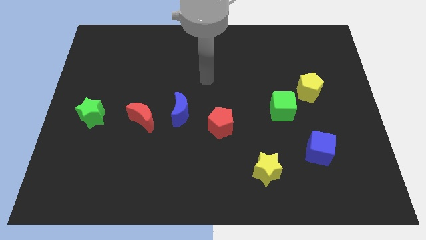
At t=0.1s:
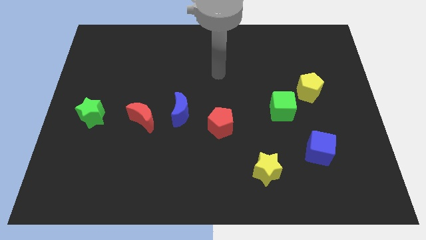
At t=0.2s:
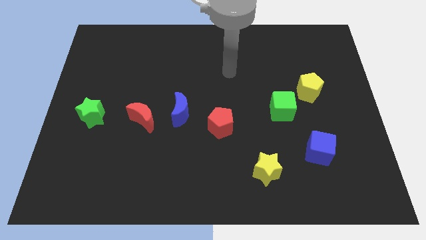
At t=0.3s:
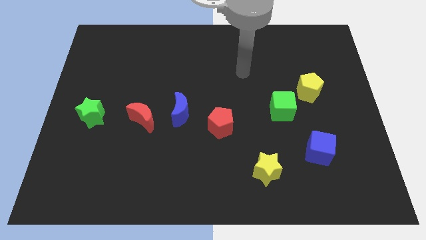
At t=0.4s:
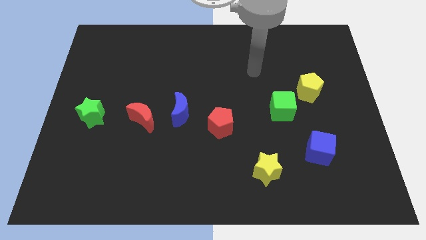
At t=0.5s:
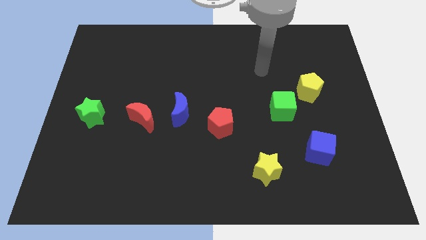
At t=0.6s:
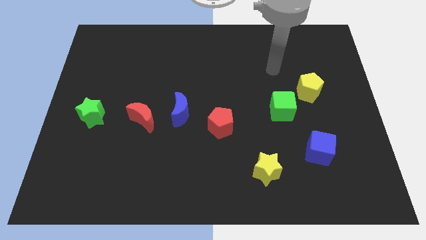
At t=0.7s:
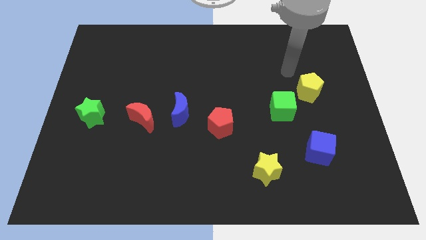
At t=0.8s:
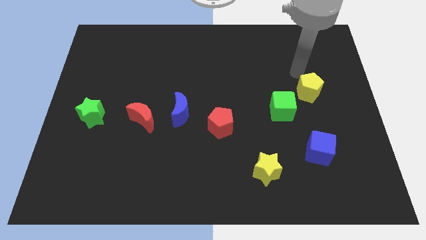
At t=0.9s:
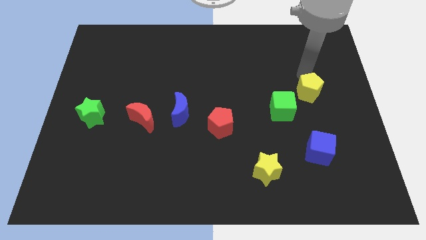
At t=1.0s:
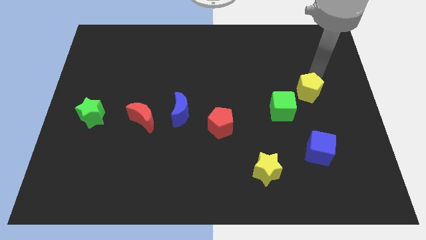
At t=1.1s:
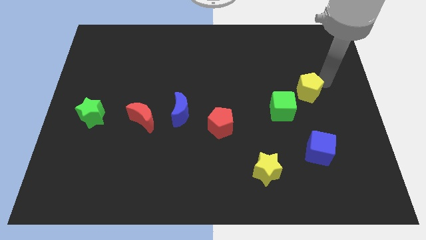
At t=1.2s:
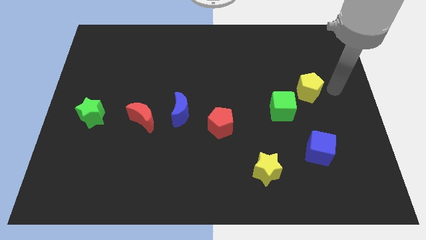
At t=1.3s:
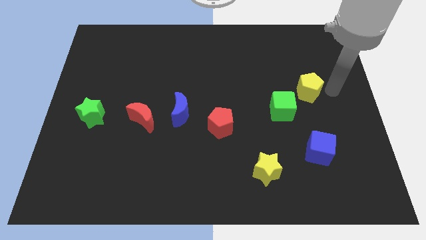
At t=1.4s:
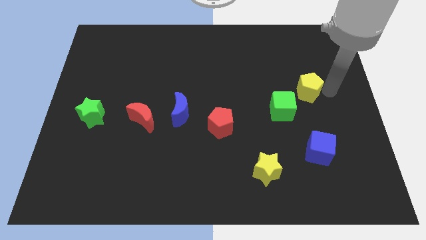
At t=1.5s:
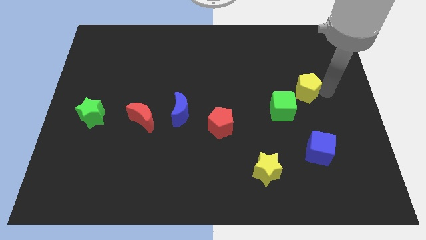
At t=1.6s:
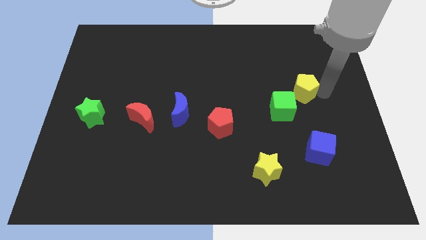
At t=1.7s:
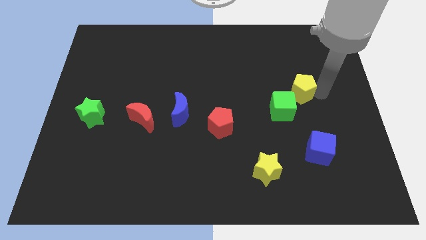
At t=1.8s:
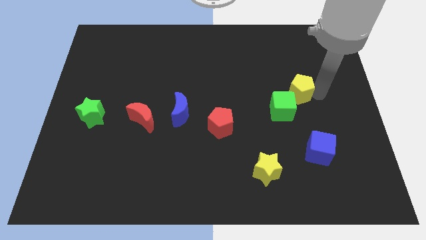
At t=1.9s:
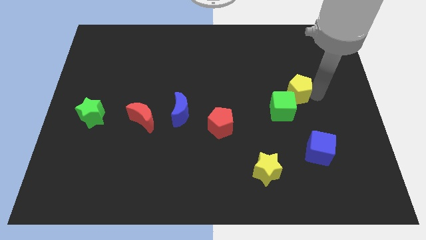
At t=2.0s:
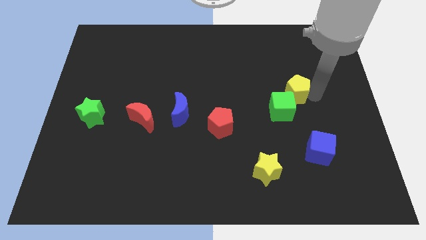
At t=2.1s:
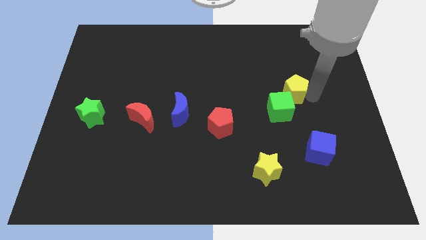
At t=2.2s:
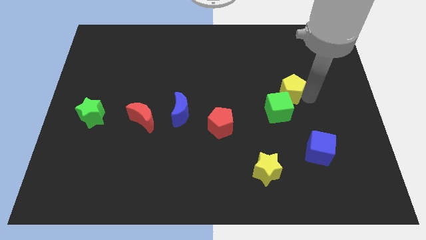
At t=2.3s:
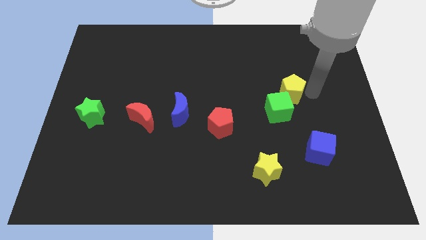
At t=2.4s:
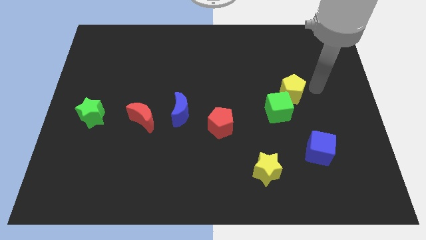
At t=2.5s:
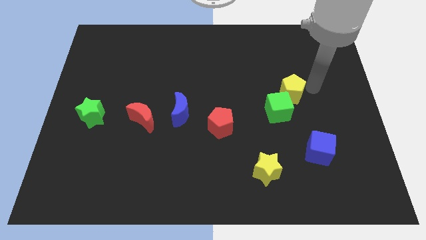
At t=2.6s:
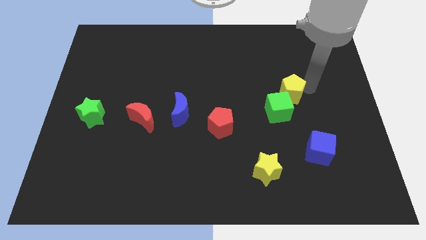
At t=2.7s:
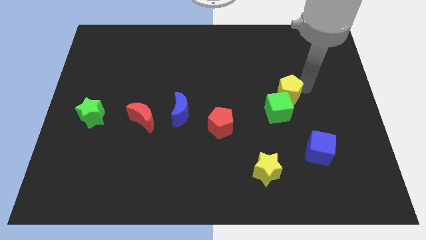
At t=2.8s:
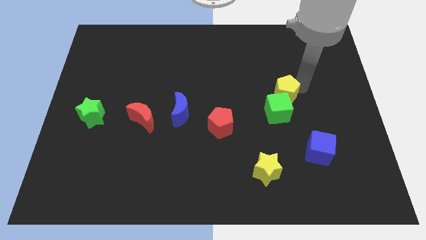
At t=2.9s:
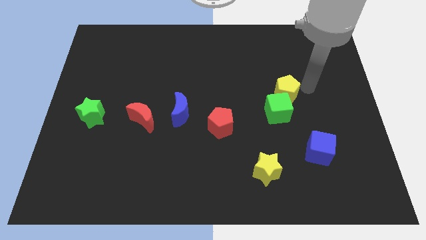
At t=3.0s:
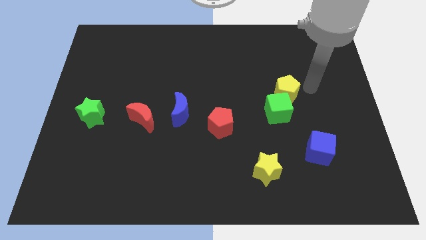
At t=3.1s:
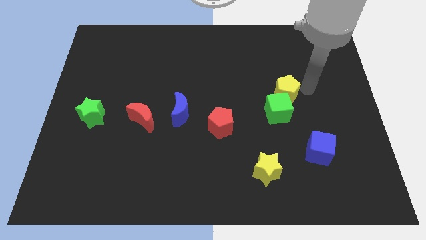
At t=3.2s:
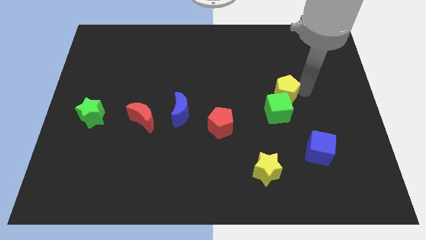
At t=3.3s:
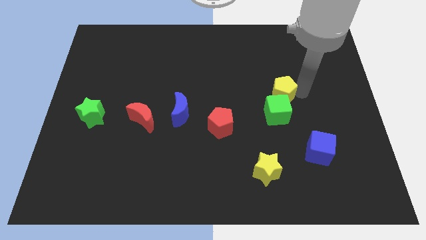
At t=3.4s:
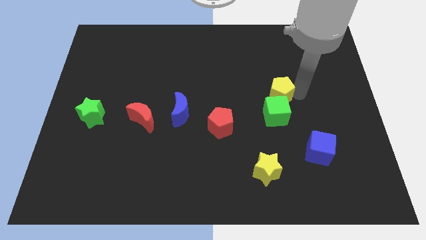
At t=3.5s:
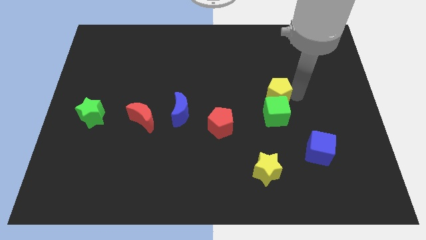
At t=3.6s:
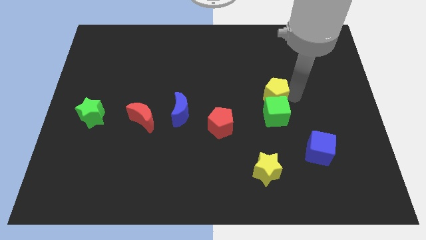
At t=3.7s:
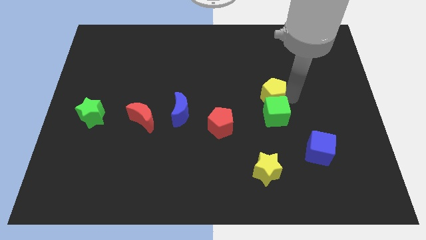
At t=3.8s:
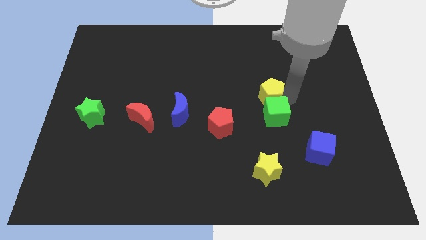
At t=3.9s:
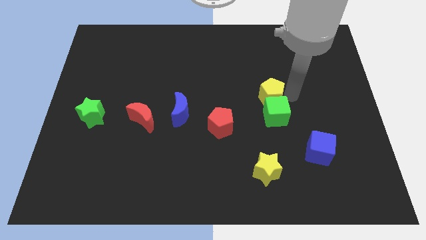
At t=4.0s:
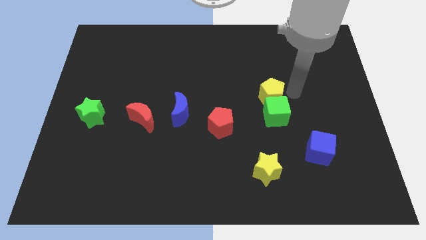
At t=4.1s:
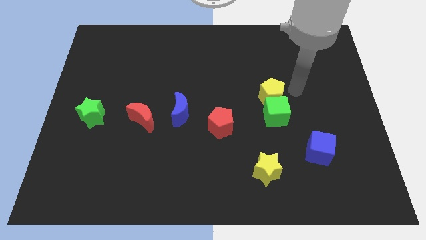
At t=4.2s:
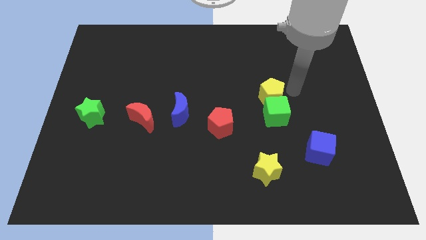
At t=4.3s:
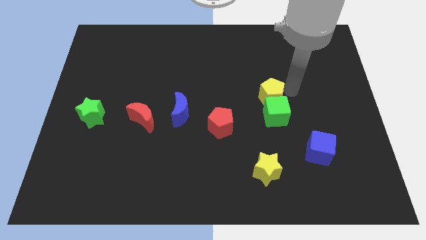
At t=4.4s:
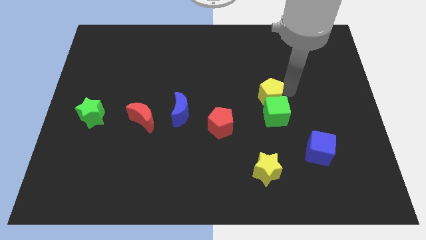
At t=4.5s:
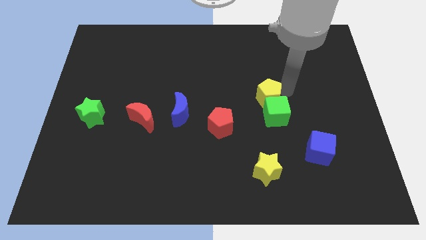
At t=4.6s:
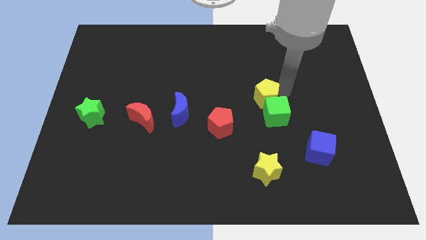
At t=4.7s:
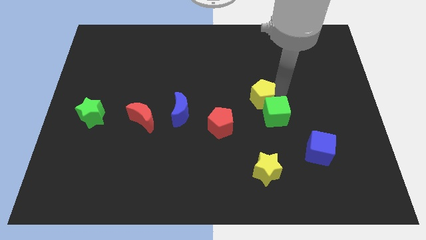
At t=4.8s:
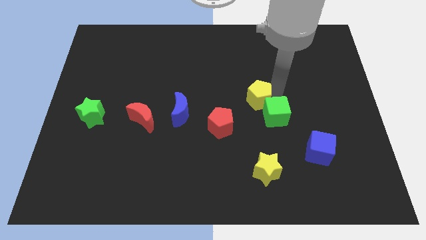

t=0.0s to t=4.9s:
move the yellow pentagon to the left side of the green cube

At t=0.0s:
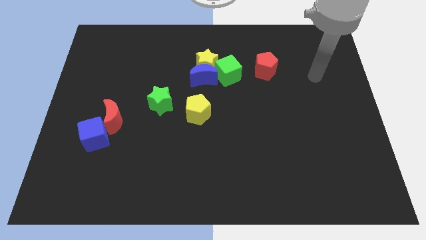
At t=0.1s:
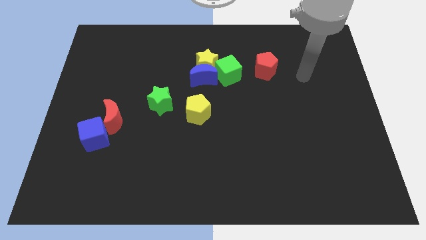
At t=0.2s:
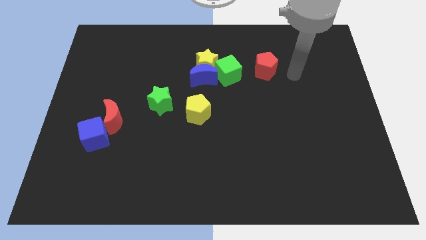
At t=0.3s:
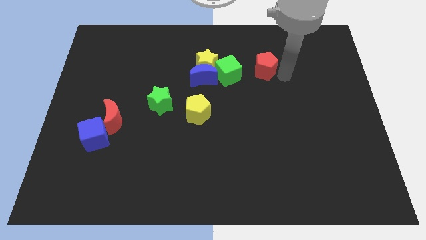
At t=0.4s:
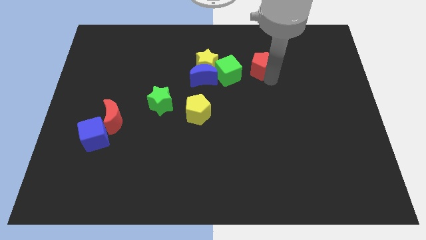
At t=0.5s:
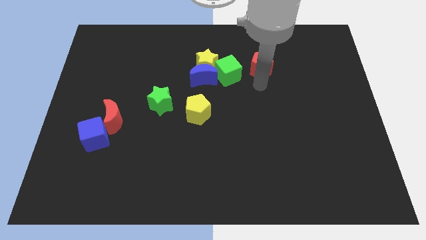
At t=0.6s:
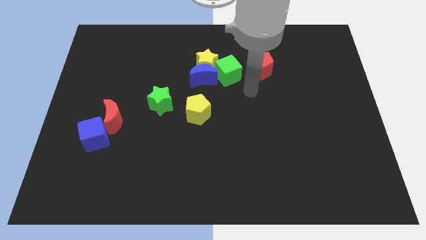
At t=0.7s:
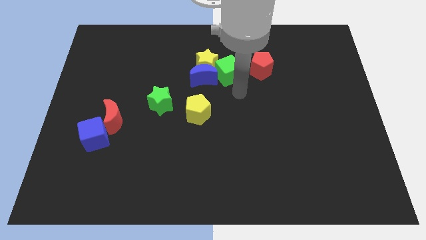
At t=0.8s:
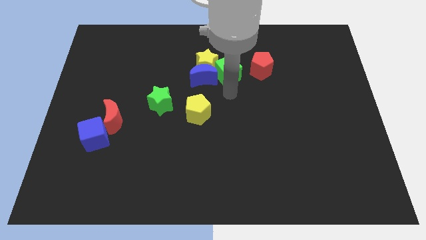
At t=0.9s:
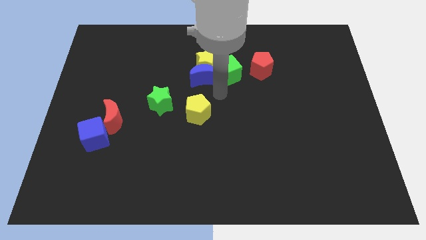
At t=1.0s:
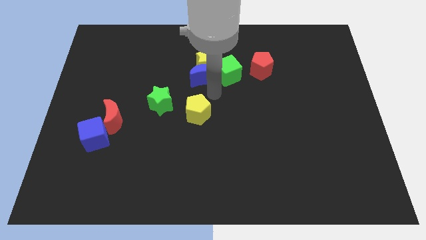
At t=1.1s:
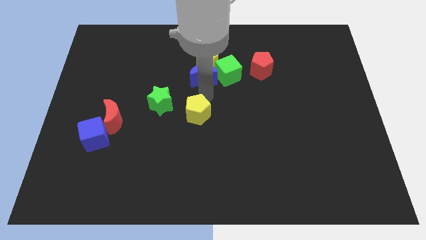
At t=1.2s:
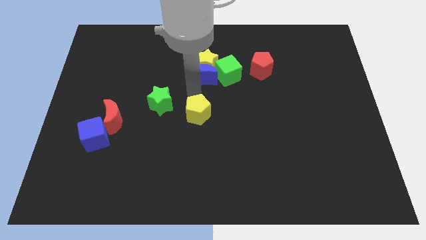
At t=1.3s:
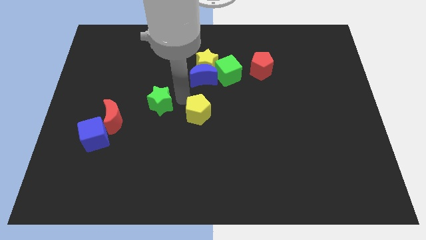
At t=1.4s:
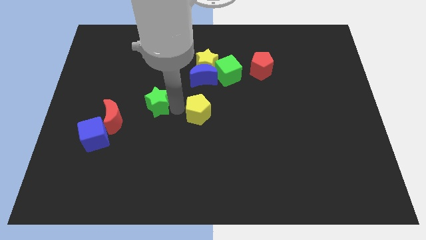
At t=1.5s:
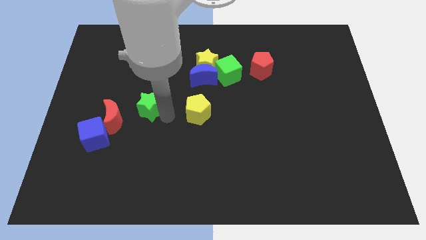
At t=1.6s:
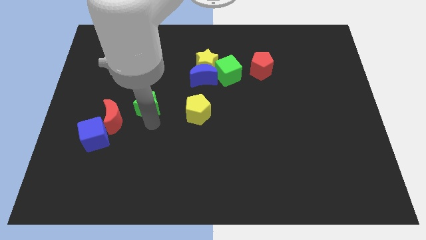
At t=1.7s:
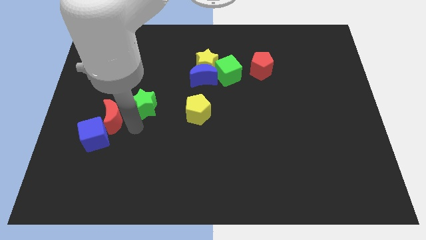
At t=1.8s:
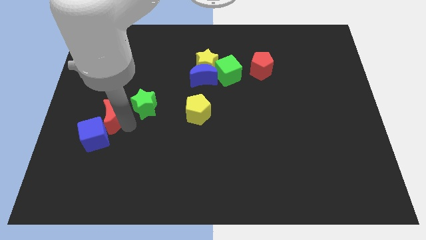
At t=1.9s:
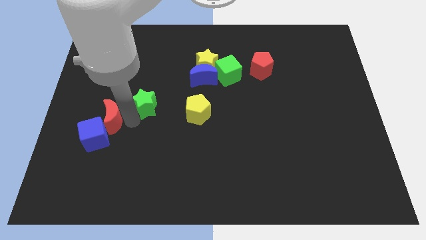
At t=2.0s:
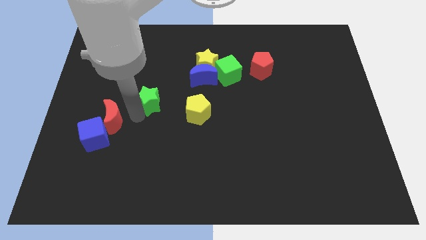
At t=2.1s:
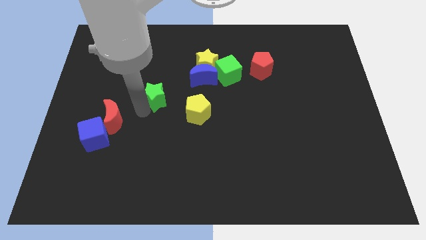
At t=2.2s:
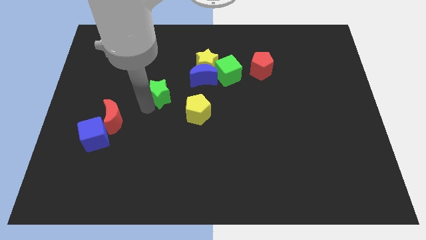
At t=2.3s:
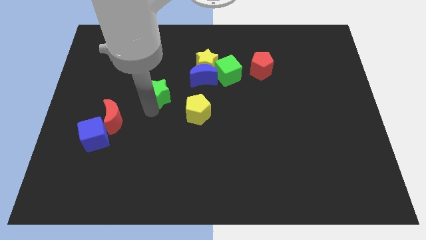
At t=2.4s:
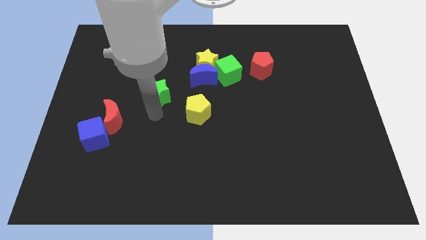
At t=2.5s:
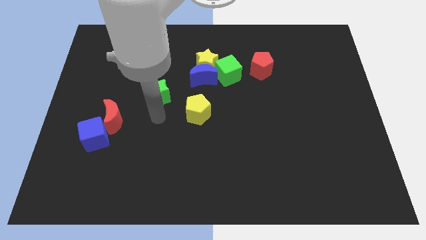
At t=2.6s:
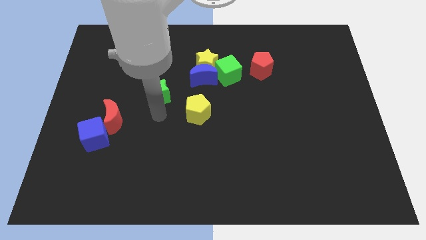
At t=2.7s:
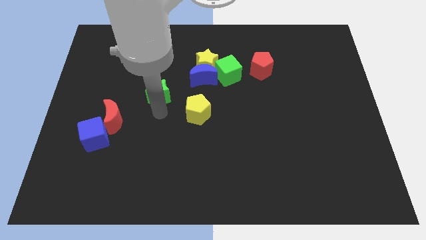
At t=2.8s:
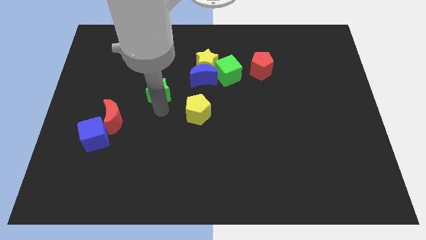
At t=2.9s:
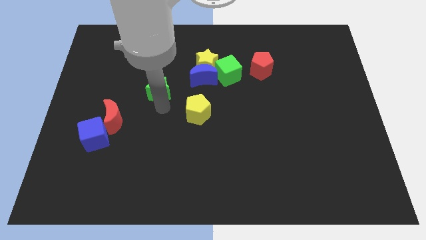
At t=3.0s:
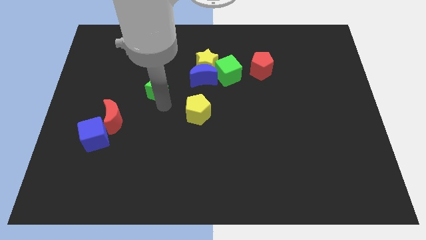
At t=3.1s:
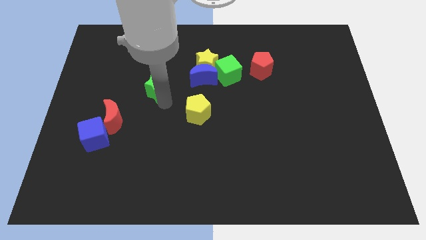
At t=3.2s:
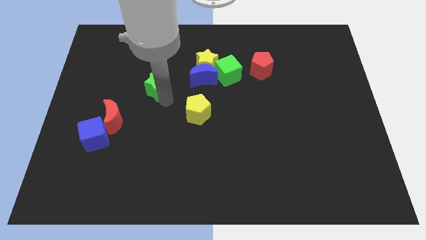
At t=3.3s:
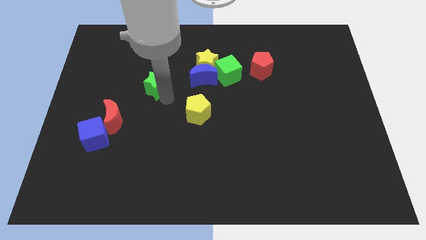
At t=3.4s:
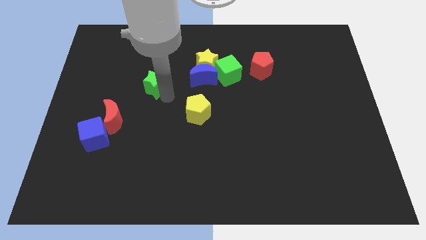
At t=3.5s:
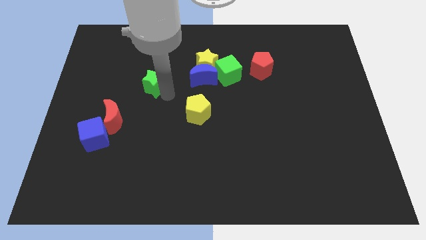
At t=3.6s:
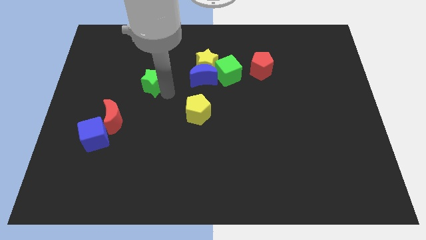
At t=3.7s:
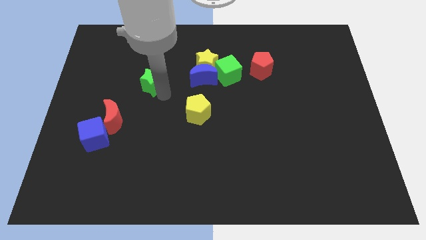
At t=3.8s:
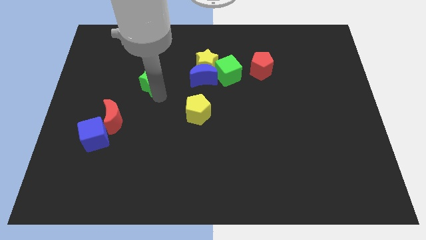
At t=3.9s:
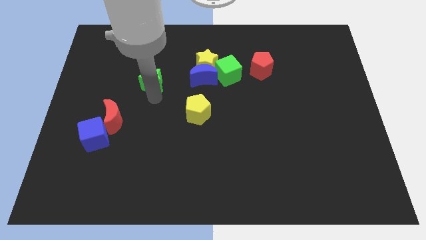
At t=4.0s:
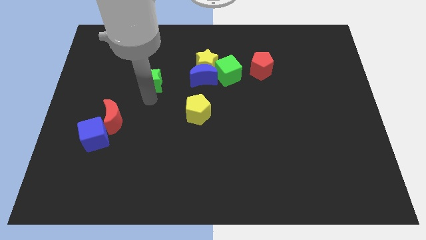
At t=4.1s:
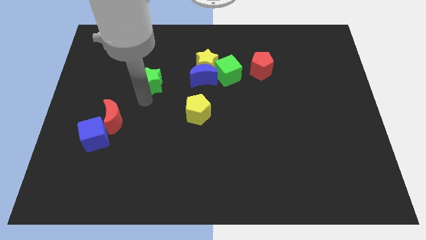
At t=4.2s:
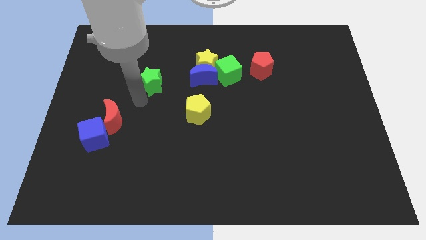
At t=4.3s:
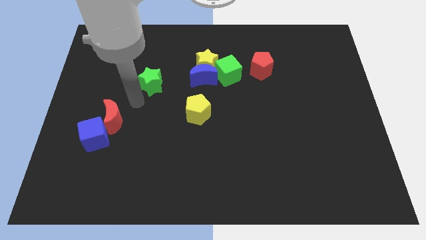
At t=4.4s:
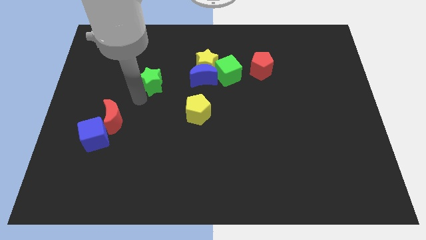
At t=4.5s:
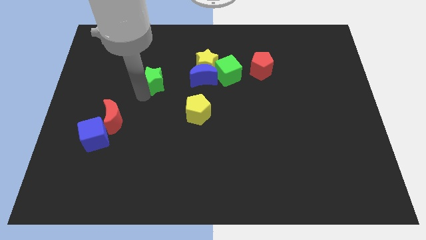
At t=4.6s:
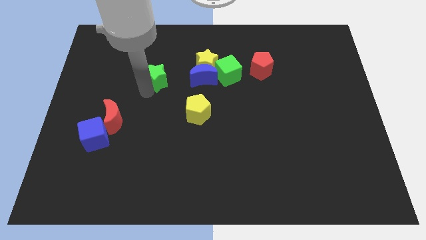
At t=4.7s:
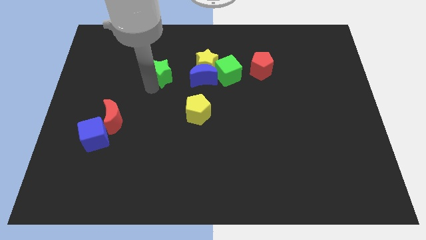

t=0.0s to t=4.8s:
put the green star to the left of the yellow star
